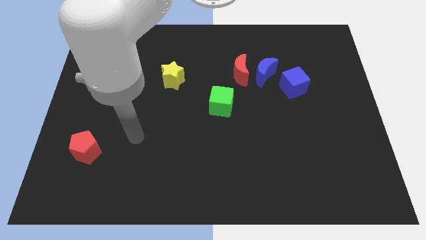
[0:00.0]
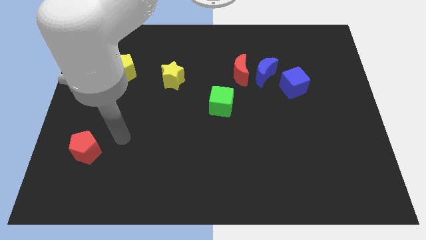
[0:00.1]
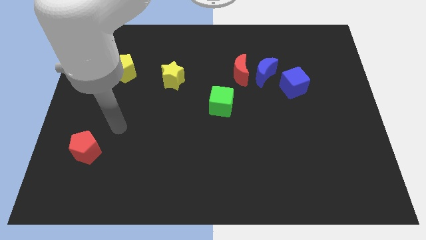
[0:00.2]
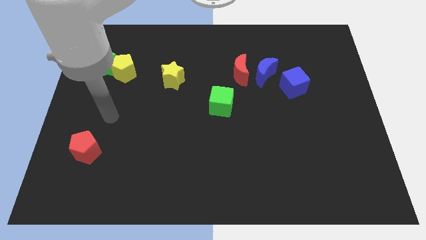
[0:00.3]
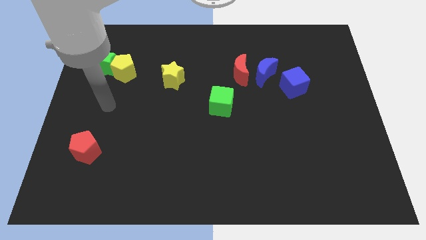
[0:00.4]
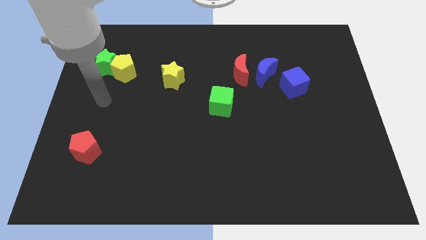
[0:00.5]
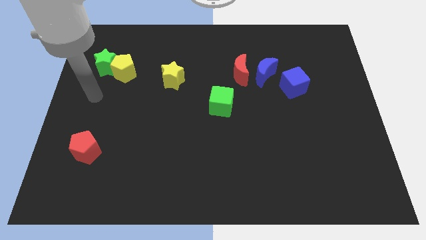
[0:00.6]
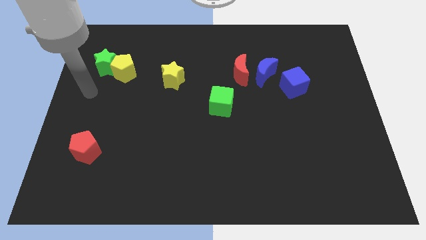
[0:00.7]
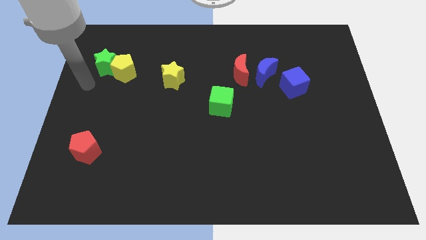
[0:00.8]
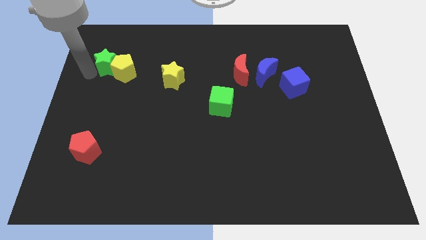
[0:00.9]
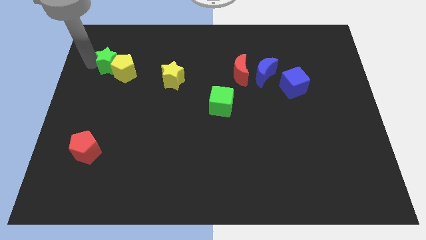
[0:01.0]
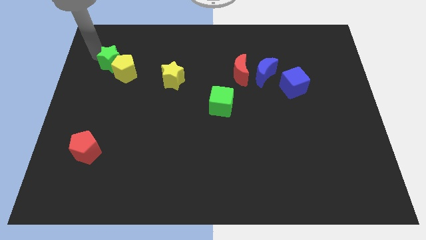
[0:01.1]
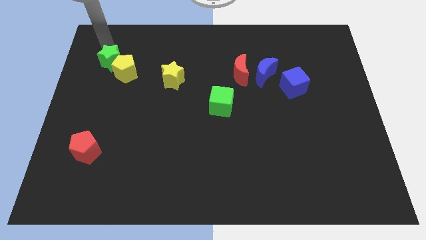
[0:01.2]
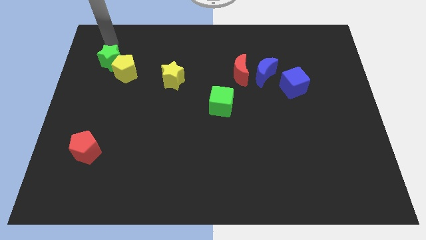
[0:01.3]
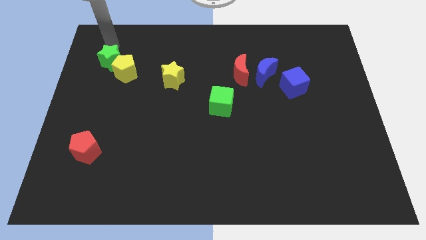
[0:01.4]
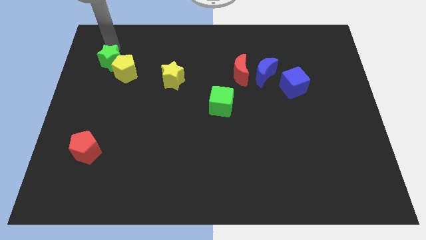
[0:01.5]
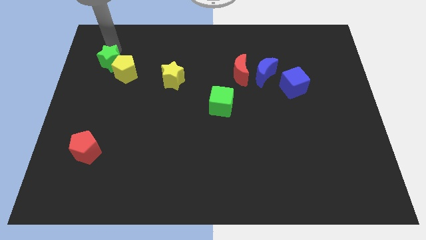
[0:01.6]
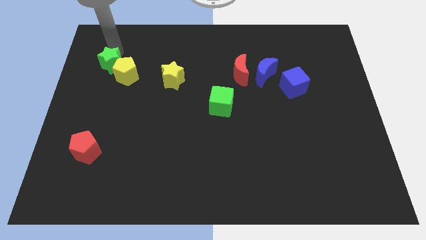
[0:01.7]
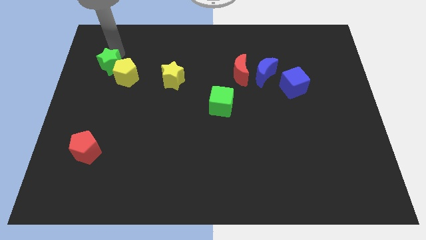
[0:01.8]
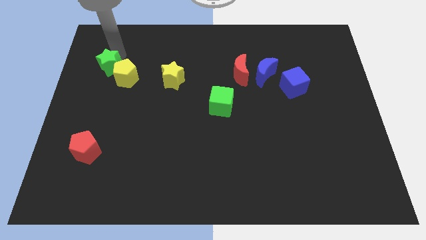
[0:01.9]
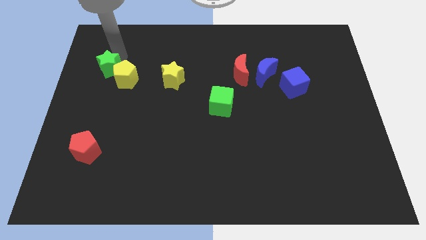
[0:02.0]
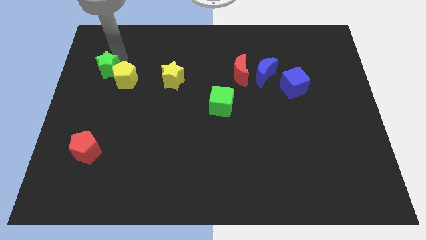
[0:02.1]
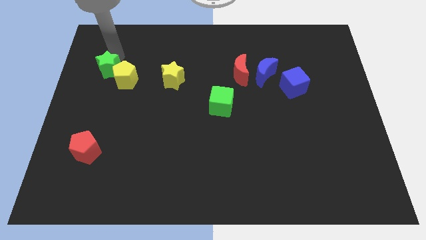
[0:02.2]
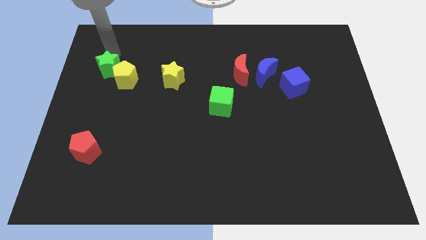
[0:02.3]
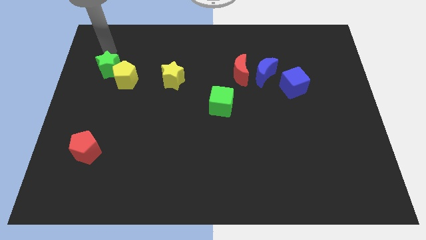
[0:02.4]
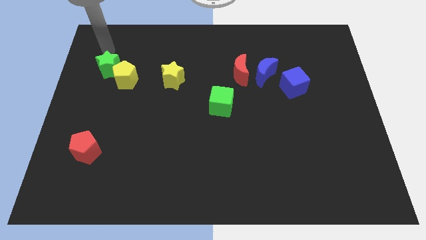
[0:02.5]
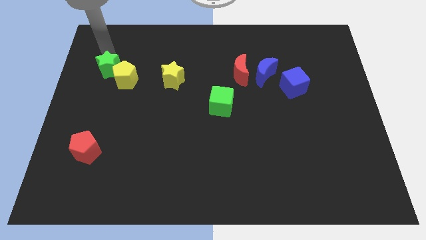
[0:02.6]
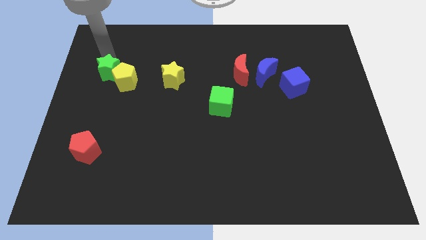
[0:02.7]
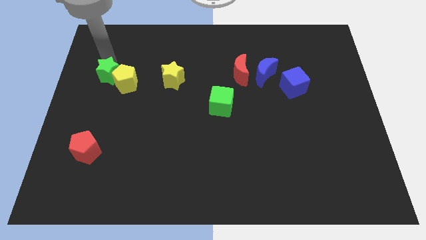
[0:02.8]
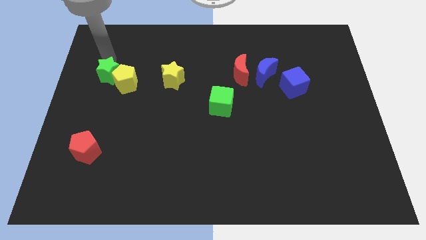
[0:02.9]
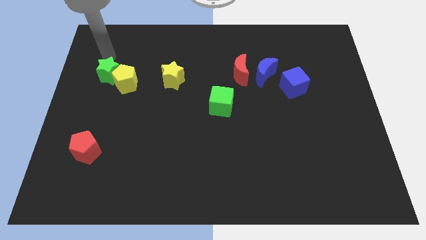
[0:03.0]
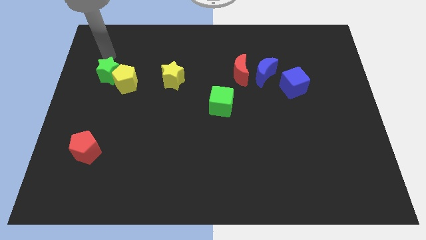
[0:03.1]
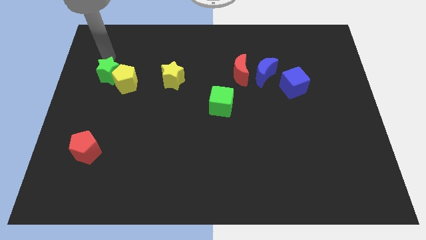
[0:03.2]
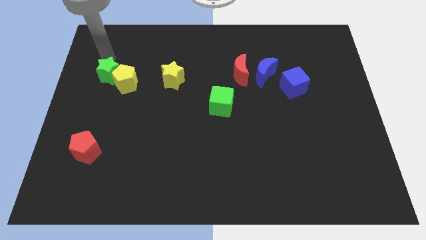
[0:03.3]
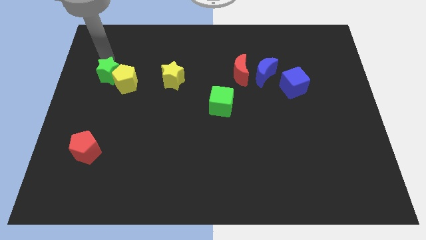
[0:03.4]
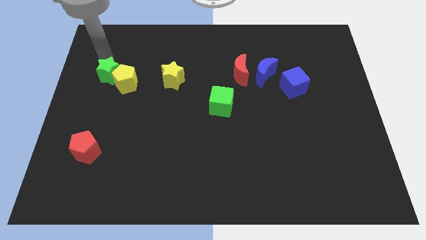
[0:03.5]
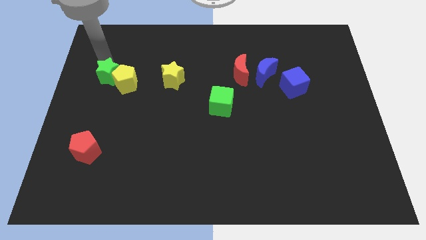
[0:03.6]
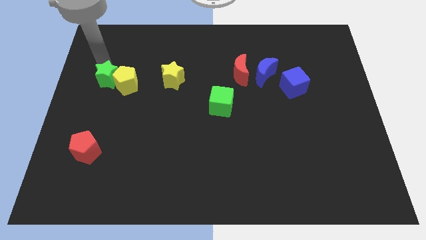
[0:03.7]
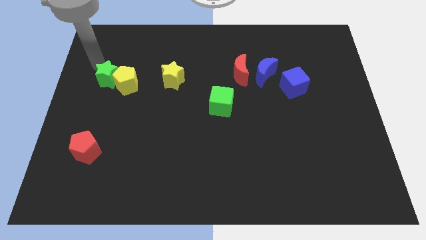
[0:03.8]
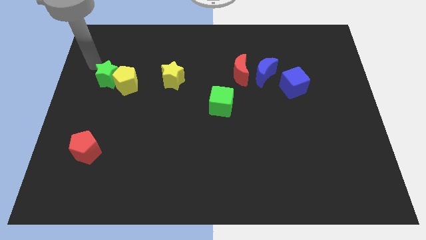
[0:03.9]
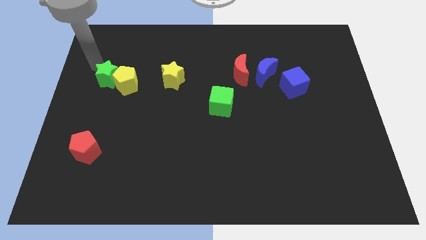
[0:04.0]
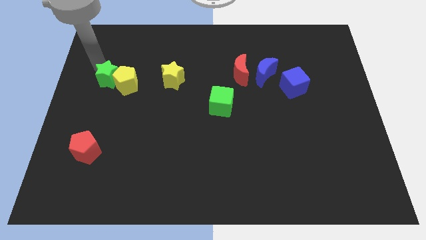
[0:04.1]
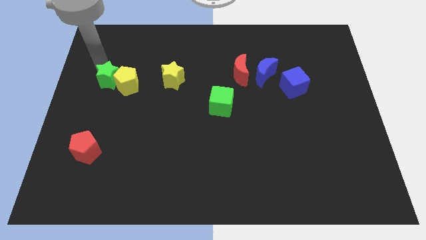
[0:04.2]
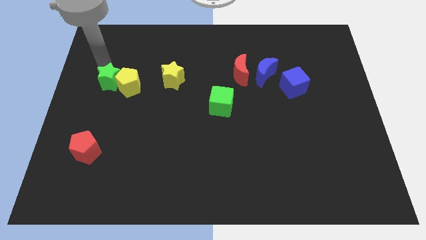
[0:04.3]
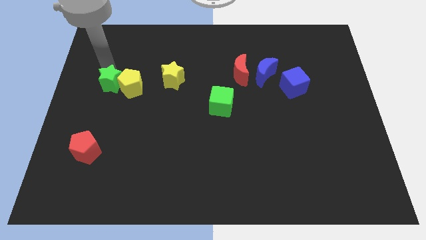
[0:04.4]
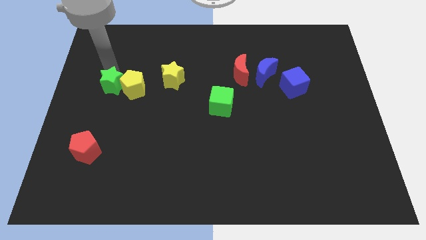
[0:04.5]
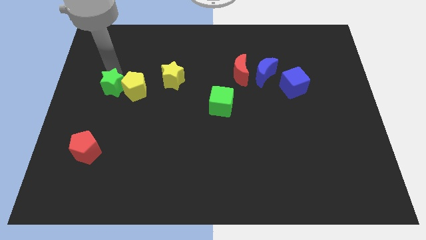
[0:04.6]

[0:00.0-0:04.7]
slide the green star somewhat downwards and to the right diagonally

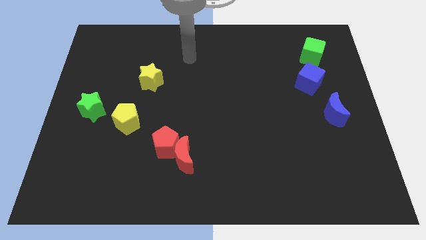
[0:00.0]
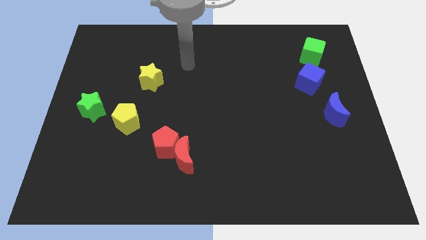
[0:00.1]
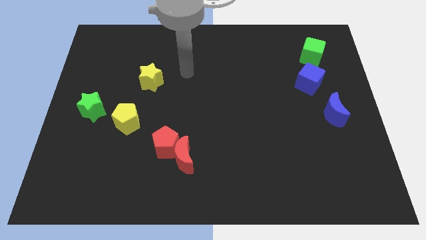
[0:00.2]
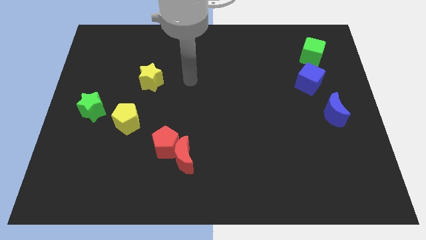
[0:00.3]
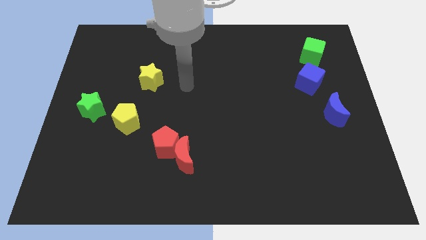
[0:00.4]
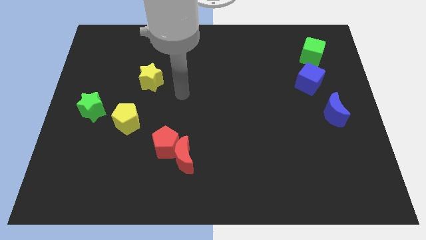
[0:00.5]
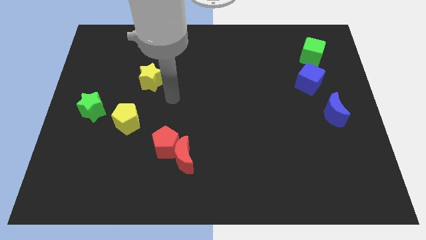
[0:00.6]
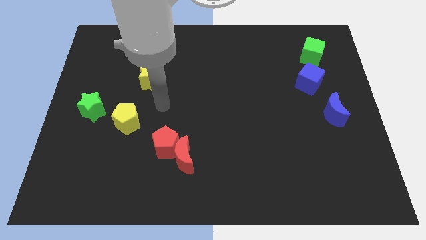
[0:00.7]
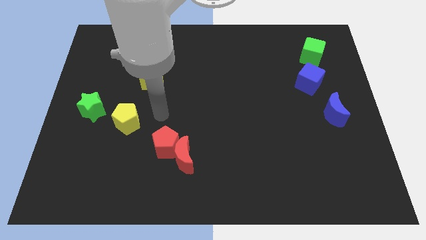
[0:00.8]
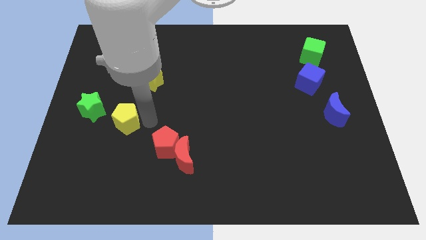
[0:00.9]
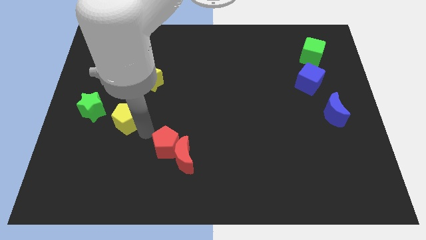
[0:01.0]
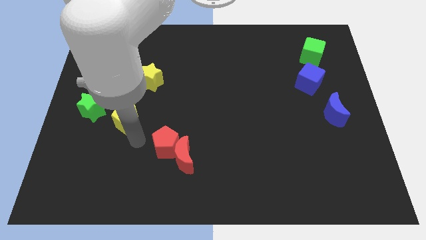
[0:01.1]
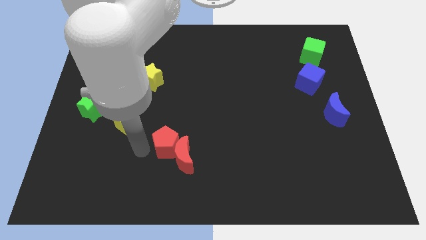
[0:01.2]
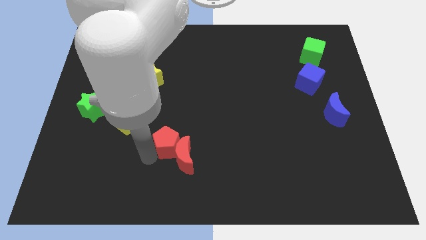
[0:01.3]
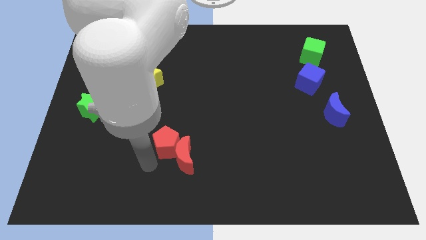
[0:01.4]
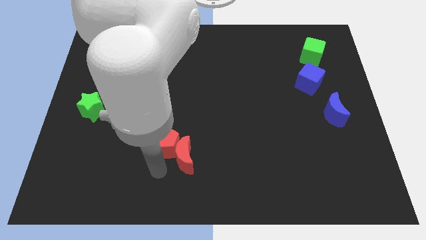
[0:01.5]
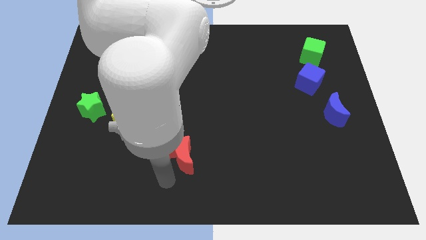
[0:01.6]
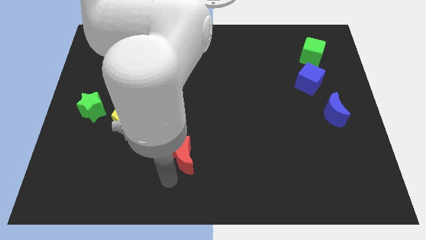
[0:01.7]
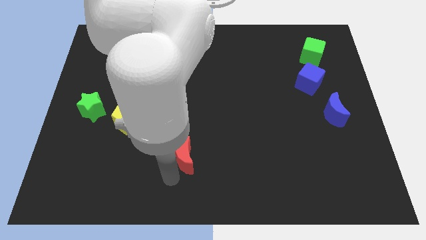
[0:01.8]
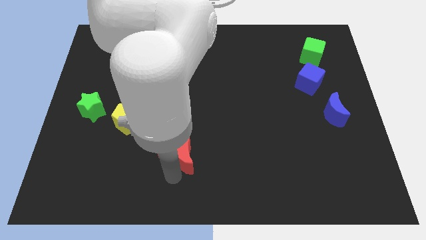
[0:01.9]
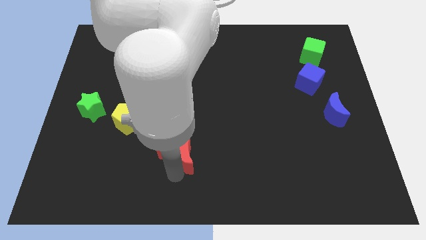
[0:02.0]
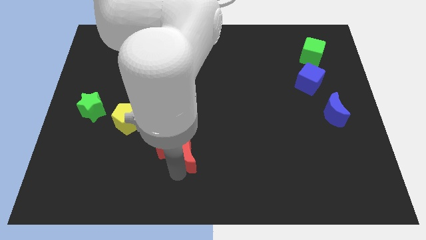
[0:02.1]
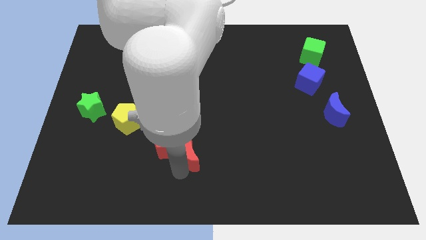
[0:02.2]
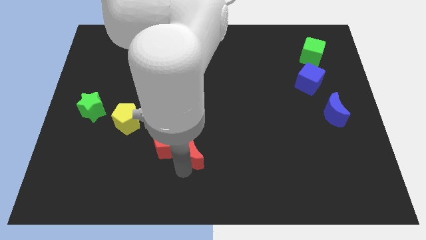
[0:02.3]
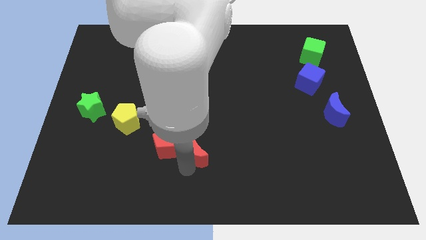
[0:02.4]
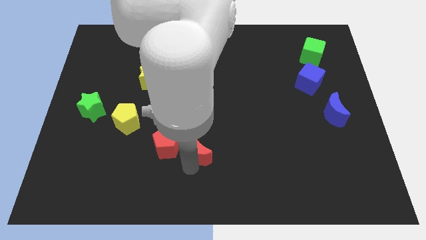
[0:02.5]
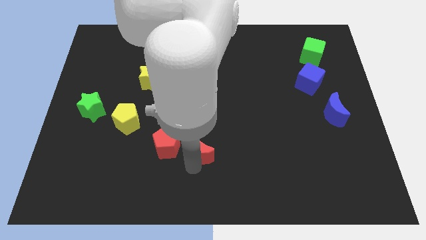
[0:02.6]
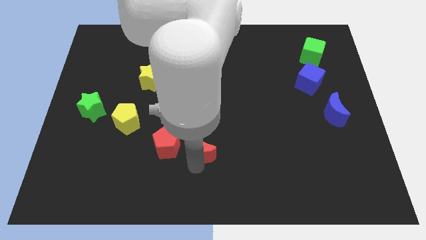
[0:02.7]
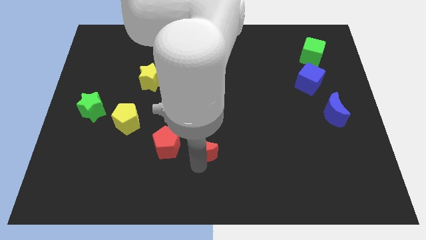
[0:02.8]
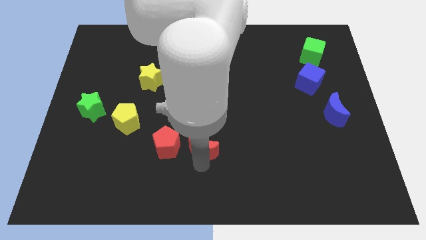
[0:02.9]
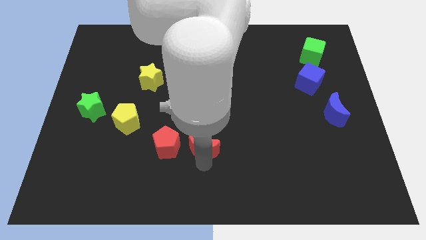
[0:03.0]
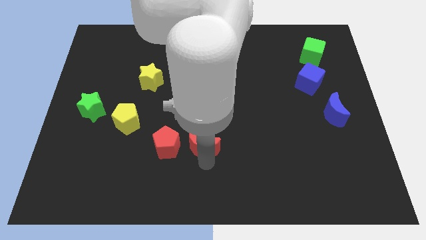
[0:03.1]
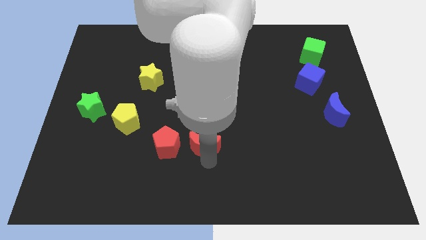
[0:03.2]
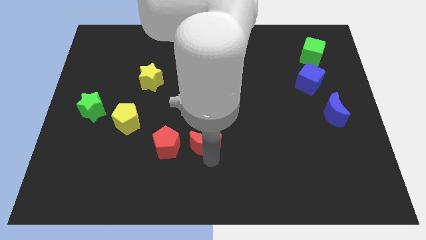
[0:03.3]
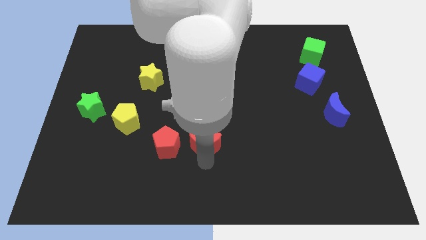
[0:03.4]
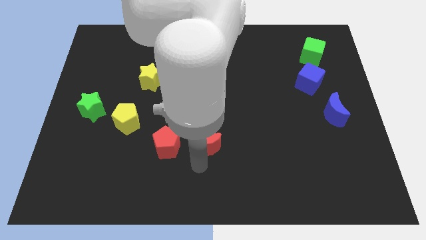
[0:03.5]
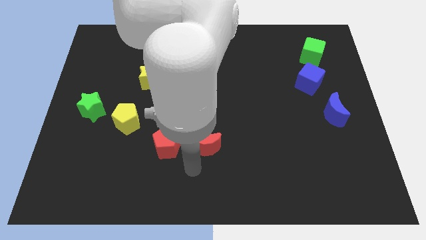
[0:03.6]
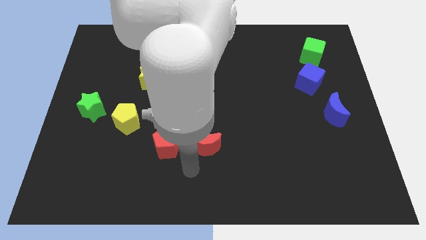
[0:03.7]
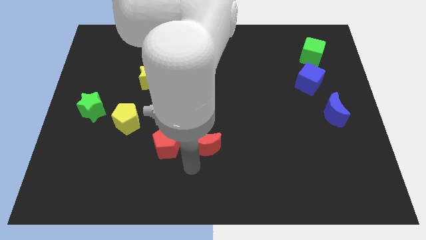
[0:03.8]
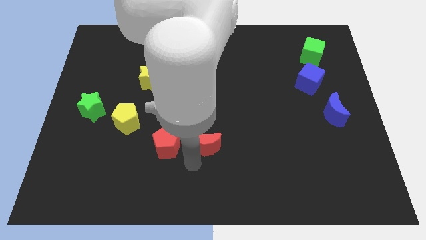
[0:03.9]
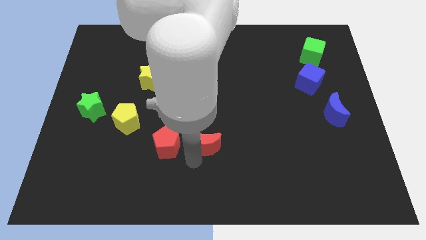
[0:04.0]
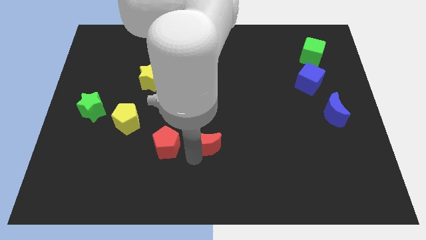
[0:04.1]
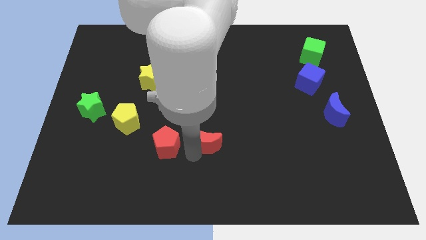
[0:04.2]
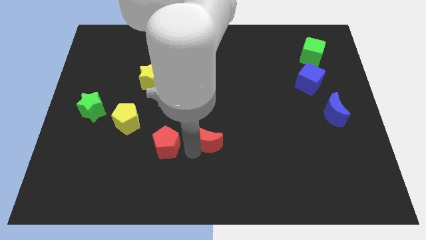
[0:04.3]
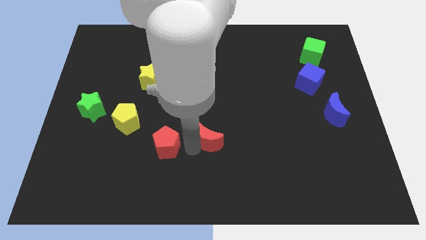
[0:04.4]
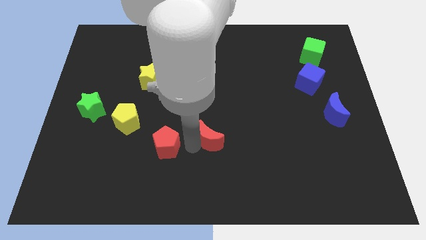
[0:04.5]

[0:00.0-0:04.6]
slightly move the red moon upwards and right diagonally
